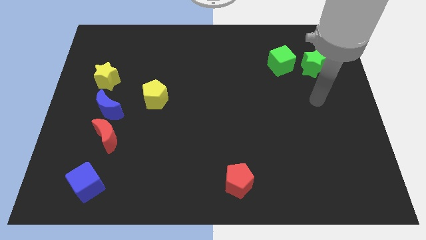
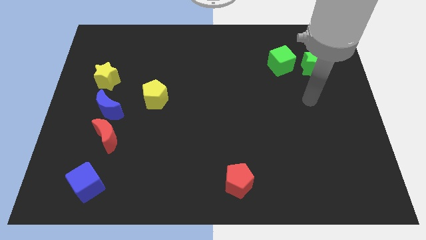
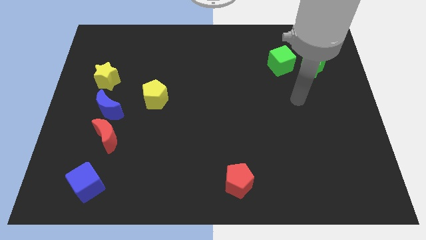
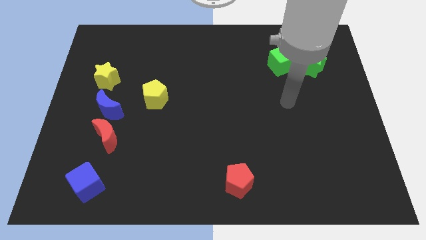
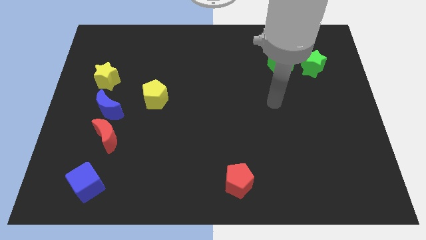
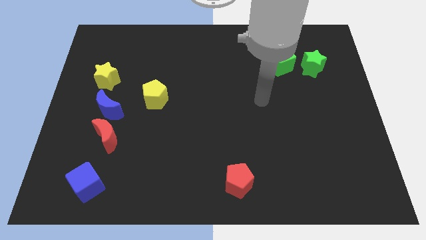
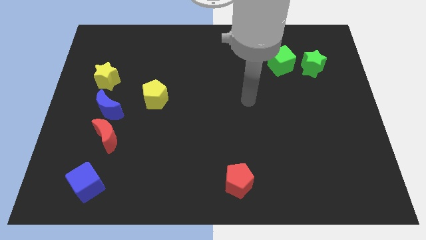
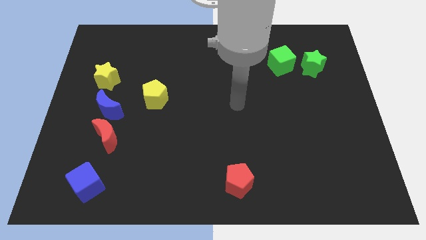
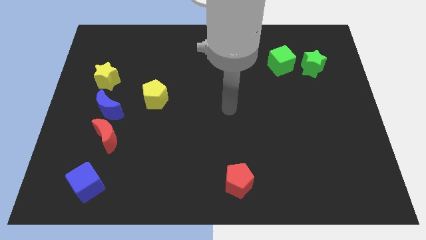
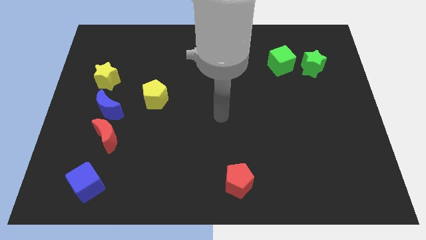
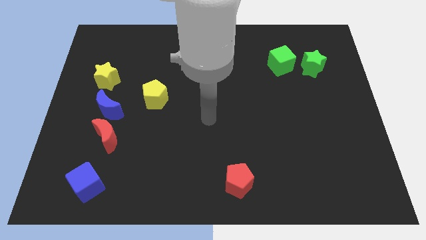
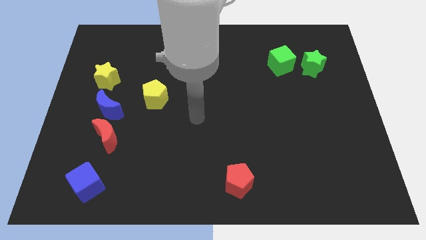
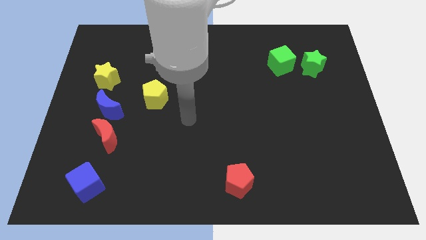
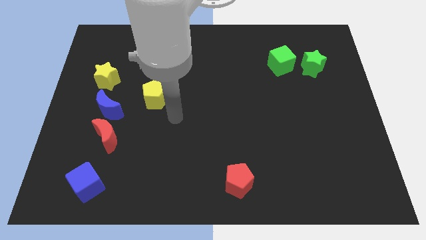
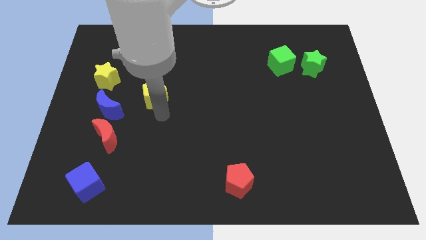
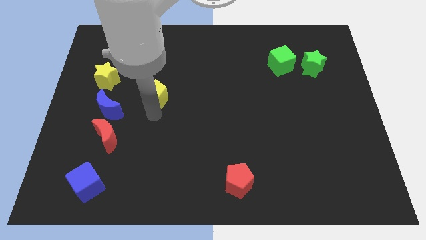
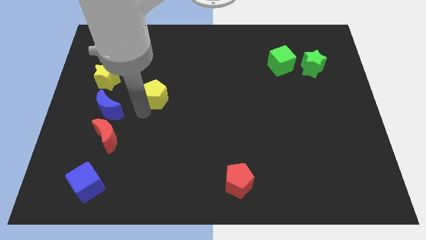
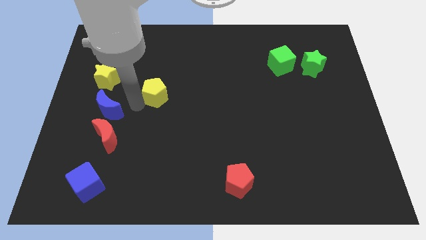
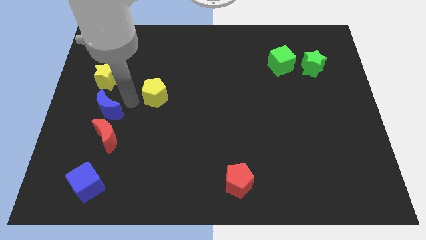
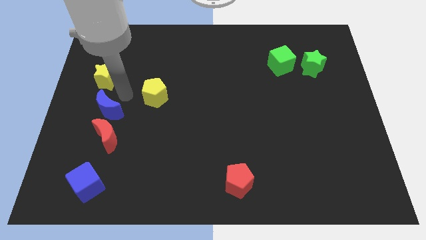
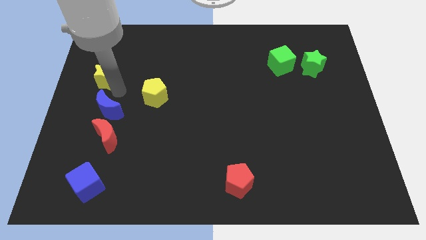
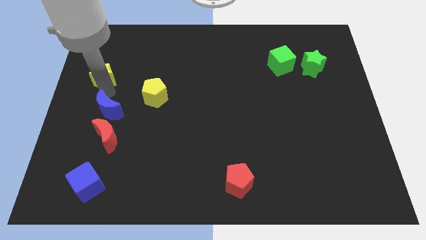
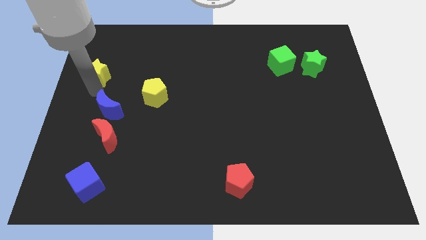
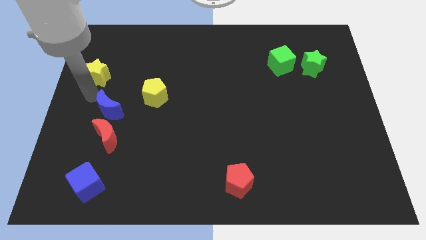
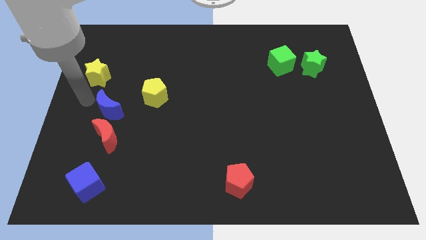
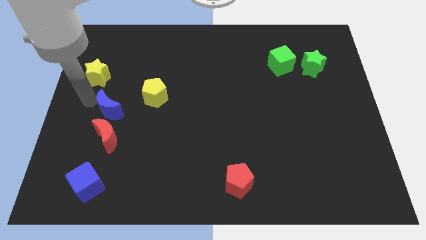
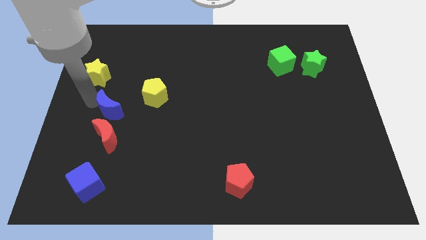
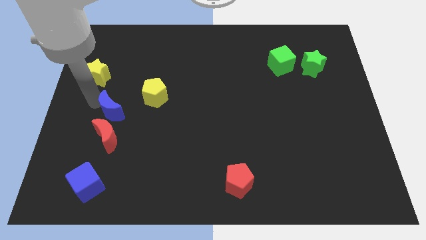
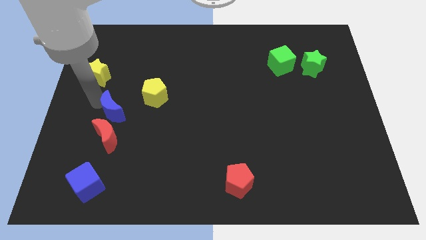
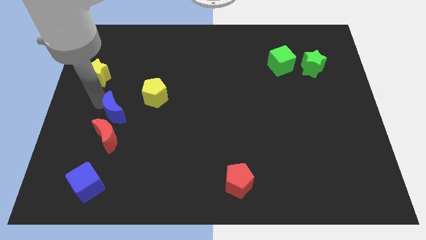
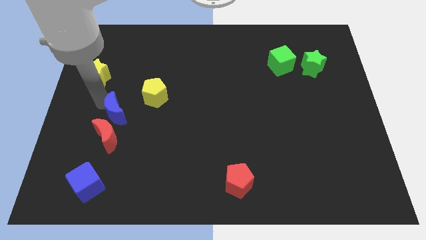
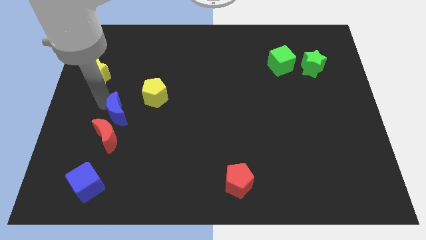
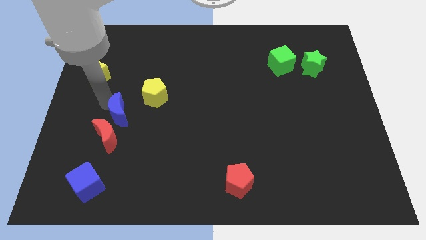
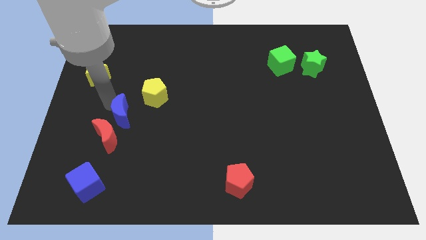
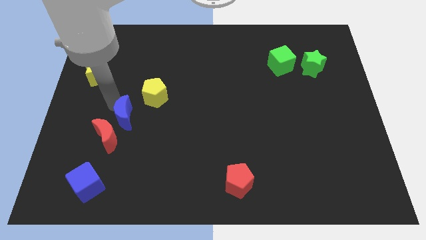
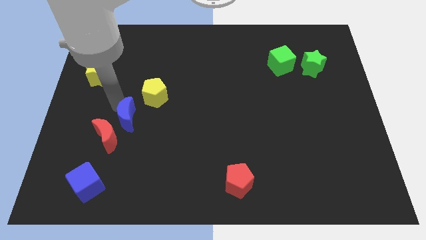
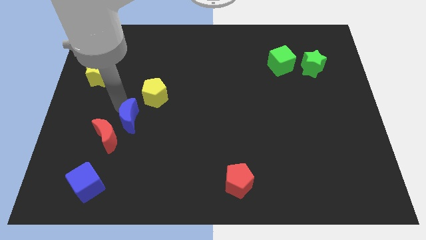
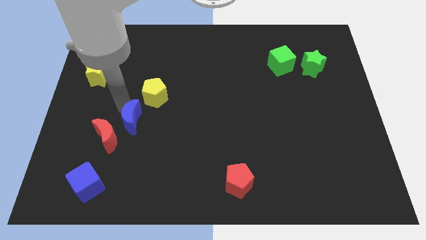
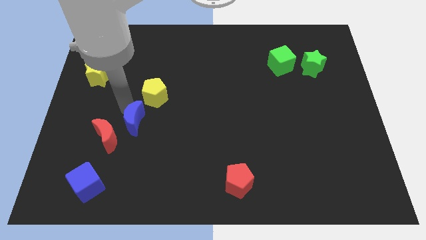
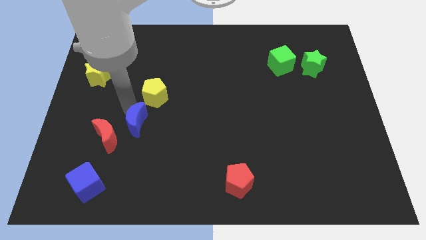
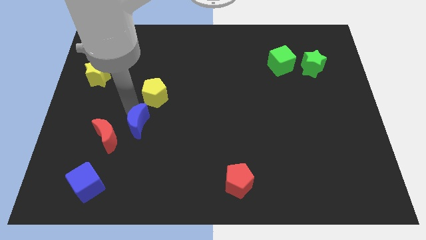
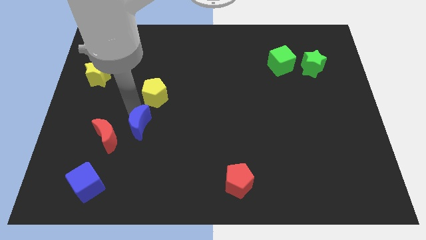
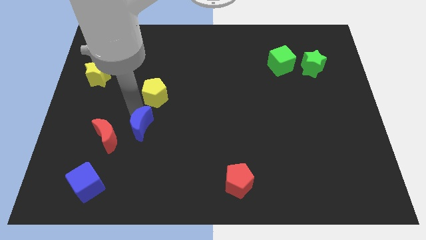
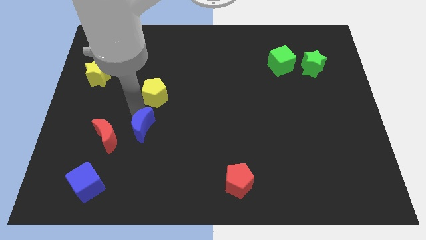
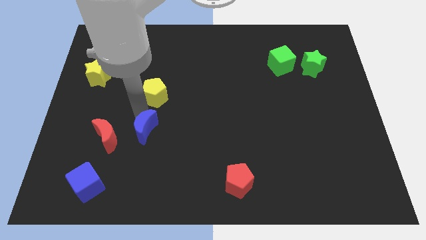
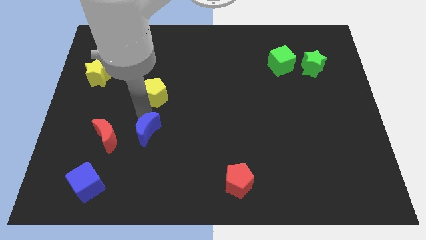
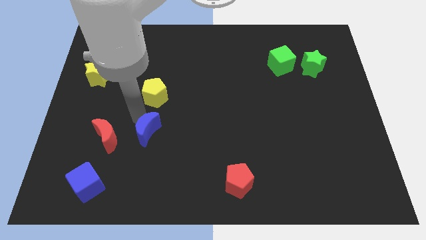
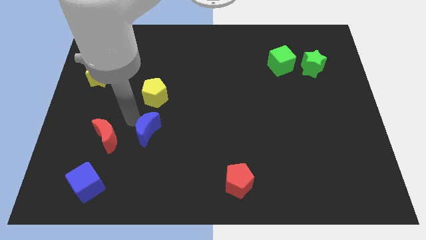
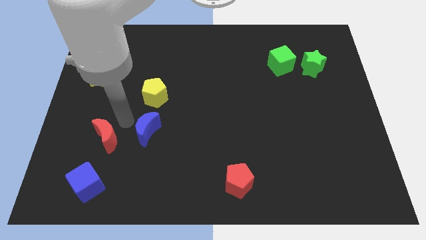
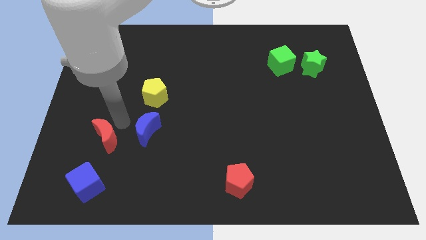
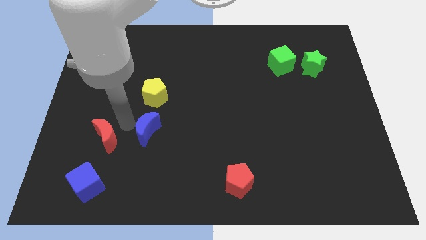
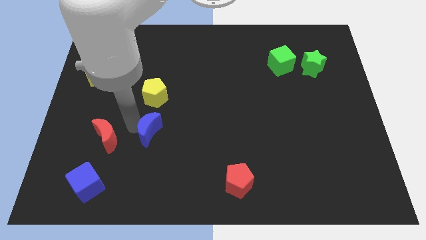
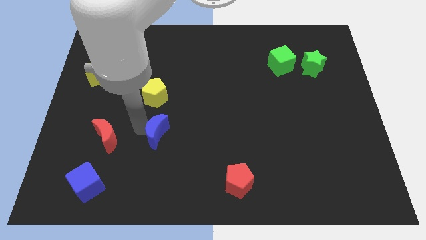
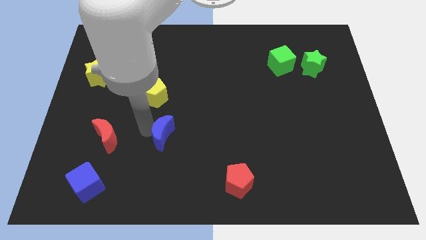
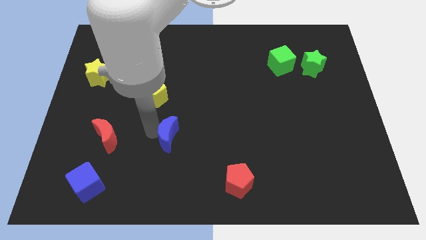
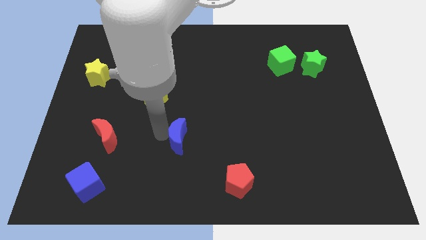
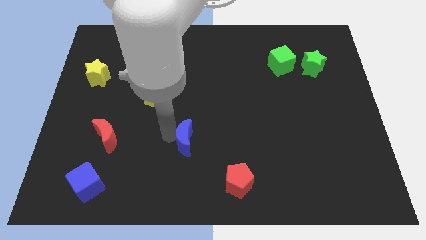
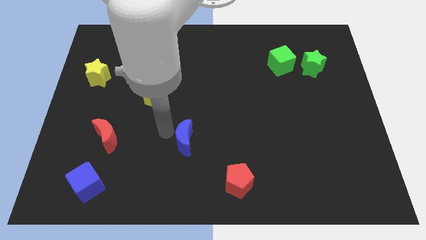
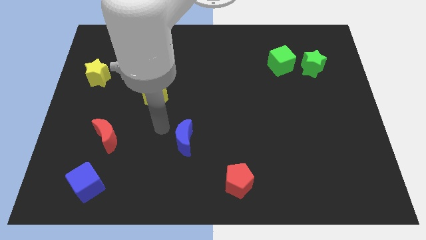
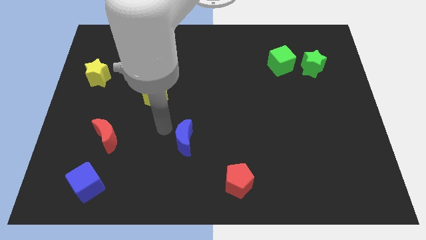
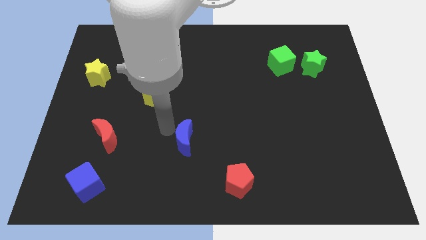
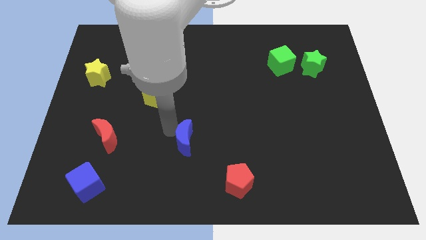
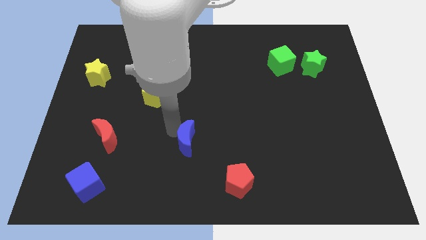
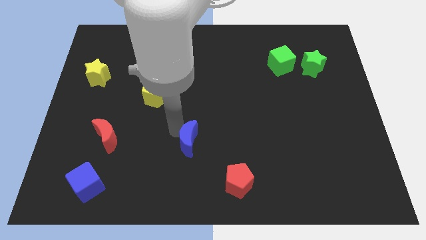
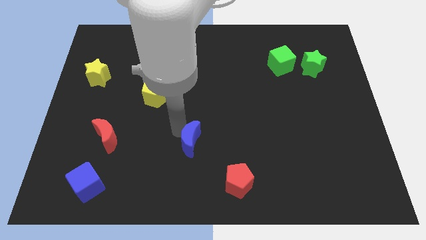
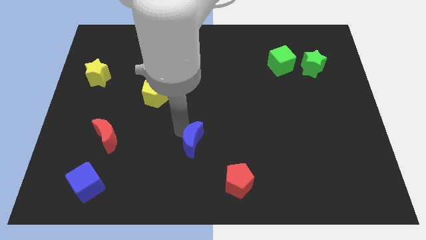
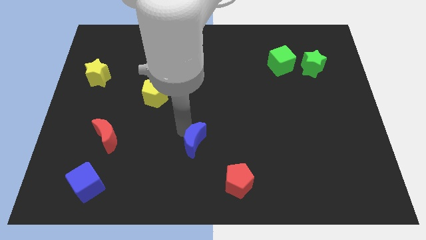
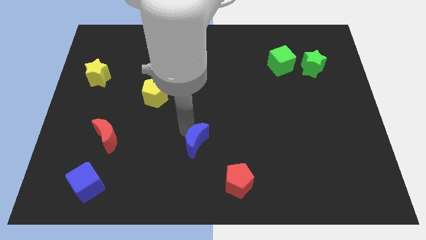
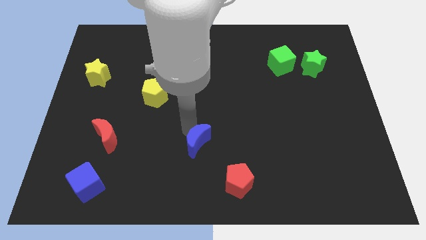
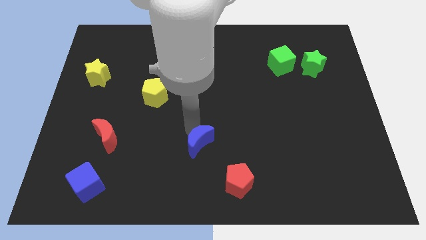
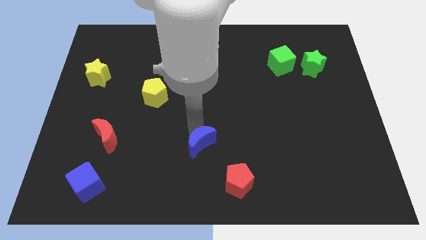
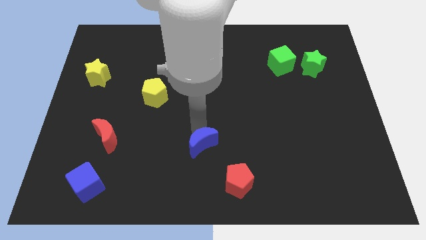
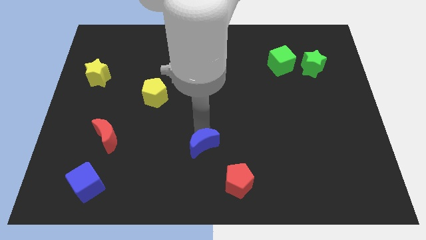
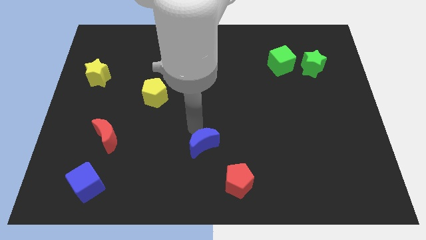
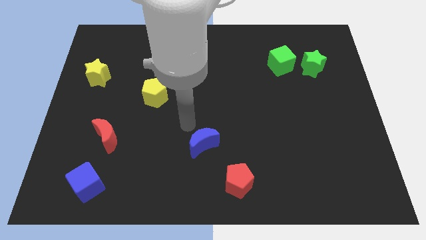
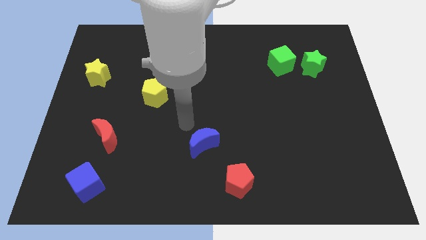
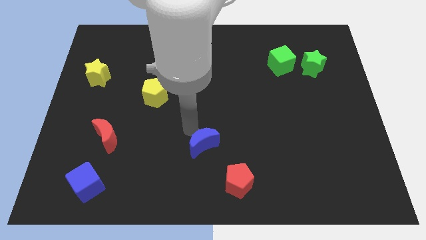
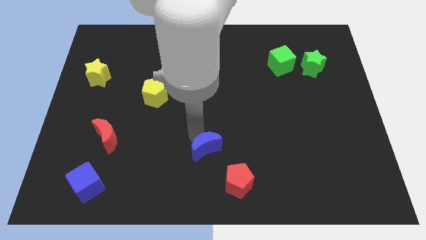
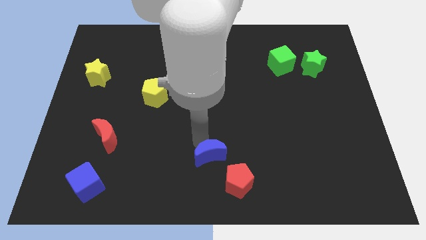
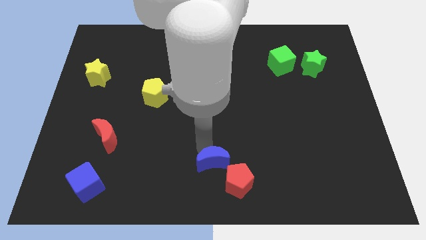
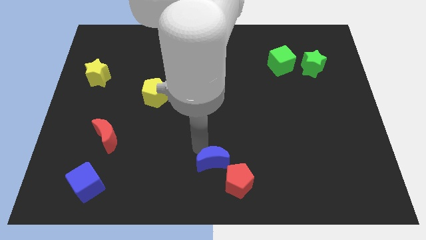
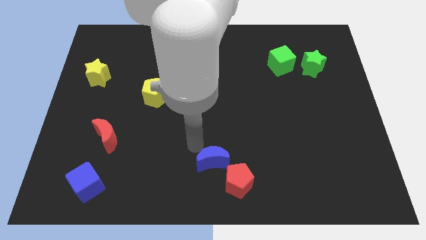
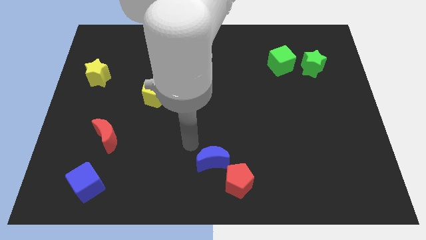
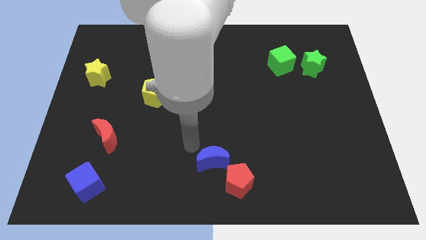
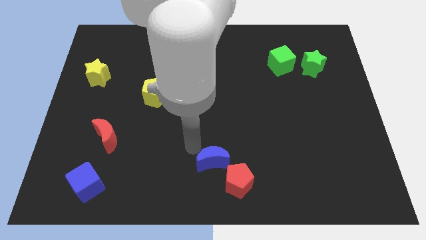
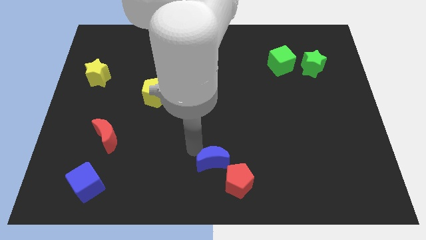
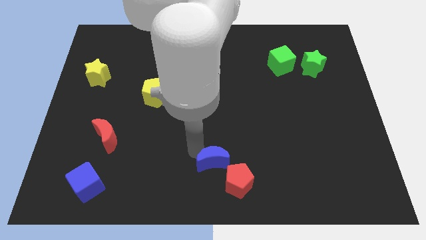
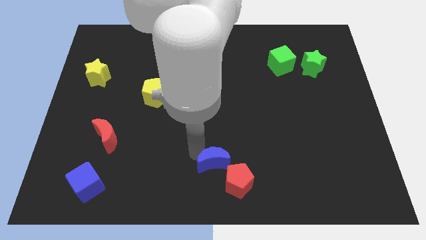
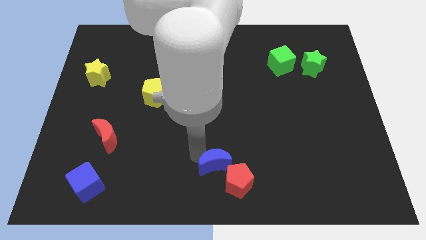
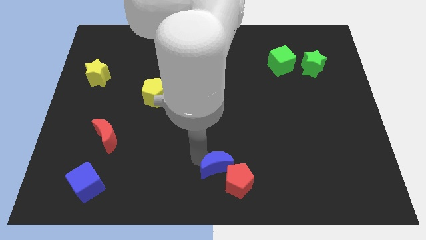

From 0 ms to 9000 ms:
push the blue moon close to the red pentagon
